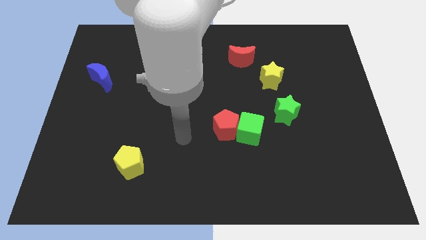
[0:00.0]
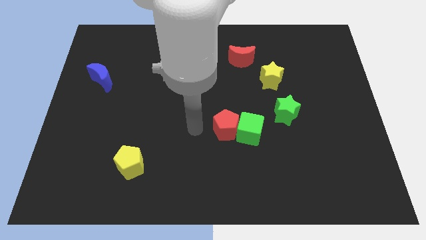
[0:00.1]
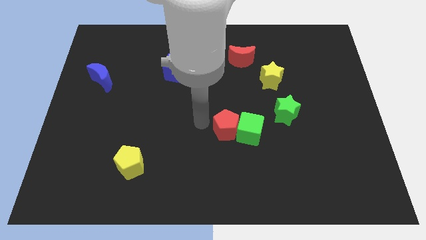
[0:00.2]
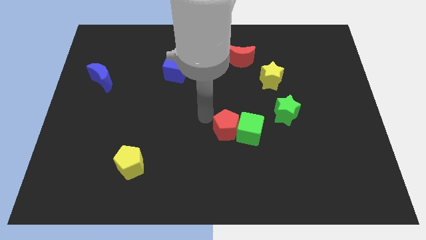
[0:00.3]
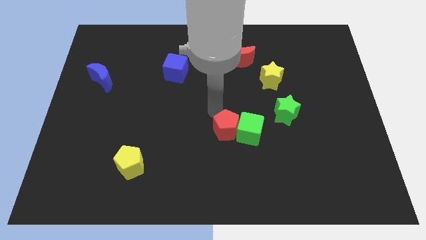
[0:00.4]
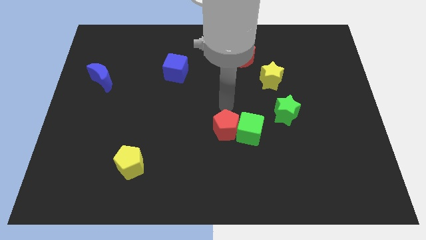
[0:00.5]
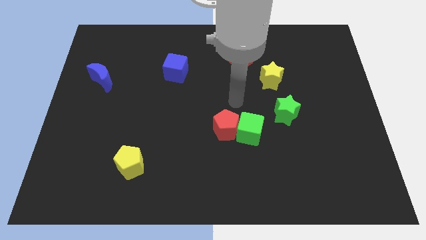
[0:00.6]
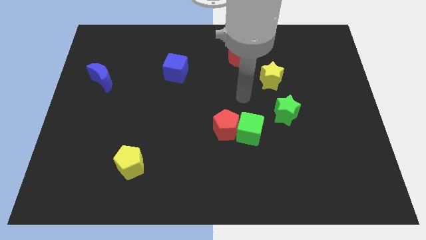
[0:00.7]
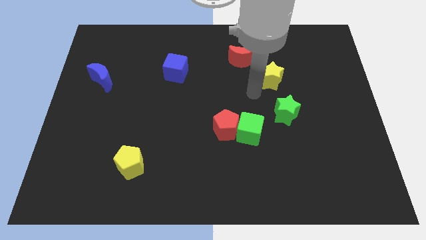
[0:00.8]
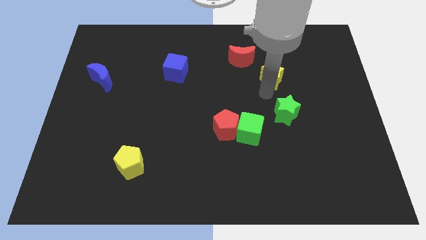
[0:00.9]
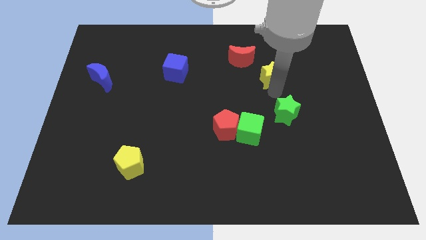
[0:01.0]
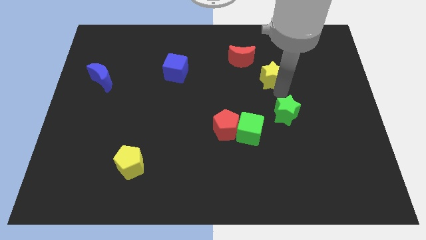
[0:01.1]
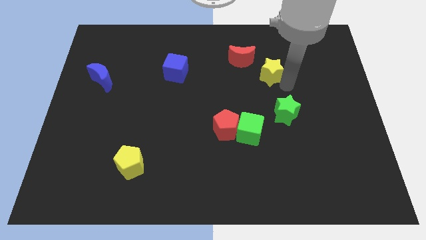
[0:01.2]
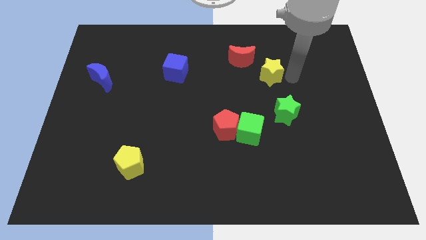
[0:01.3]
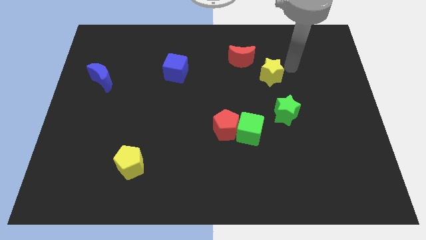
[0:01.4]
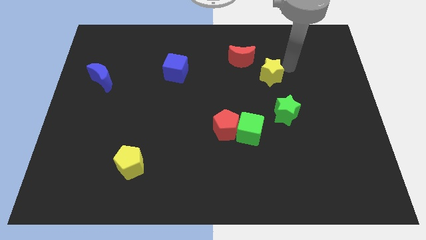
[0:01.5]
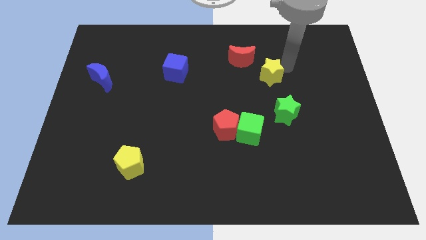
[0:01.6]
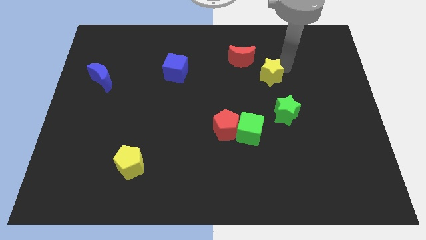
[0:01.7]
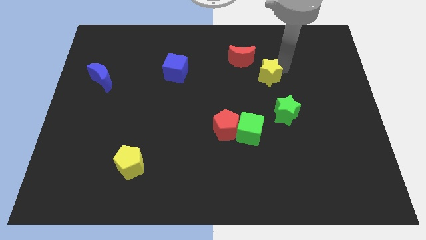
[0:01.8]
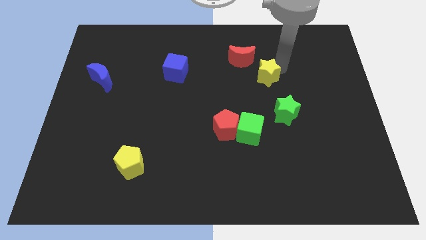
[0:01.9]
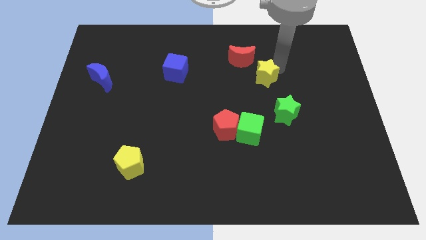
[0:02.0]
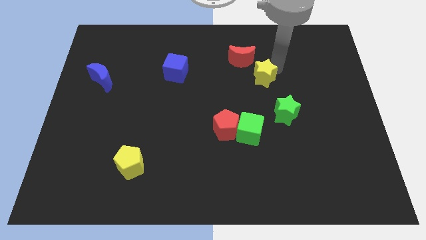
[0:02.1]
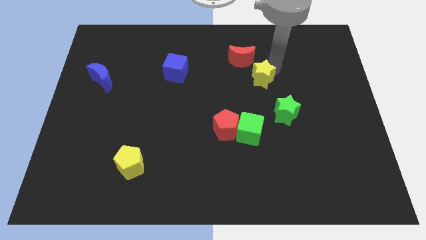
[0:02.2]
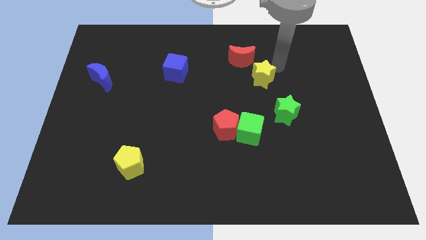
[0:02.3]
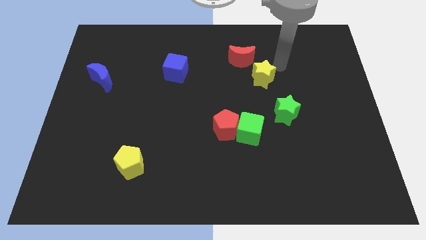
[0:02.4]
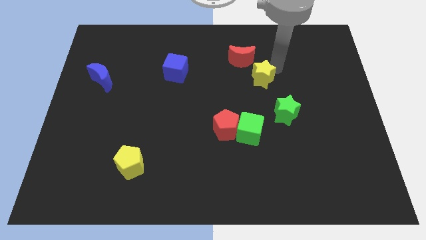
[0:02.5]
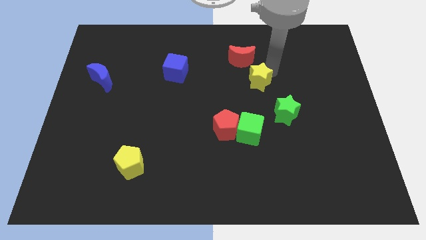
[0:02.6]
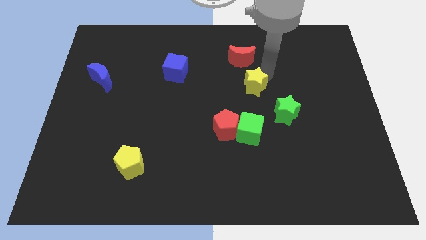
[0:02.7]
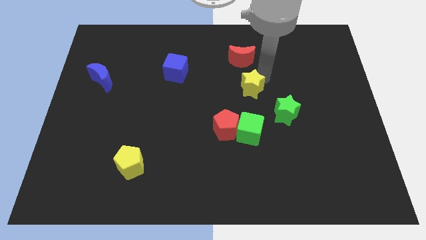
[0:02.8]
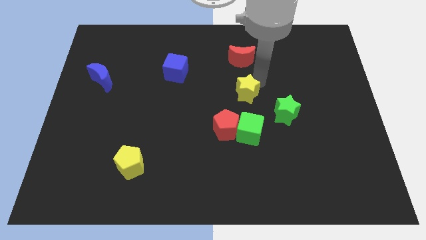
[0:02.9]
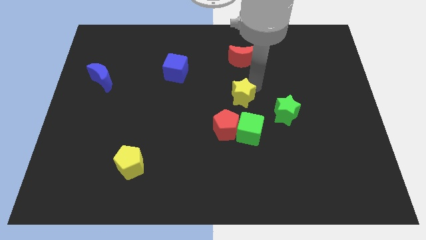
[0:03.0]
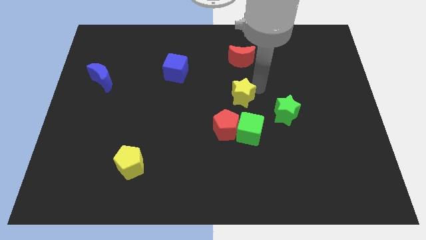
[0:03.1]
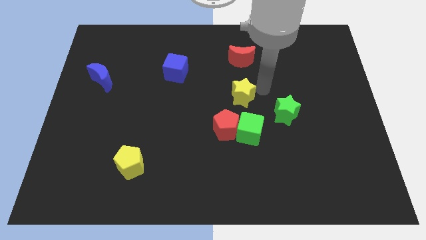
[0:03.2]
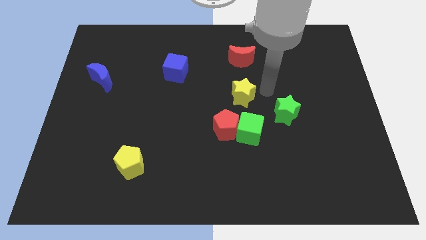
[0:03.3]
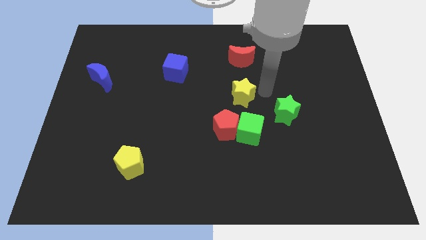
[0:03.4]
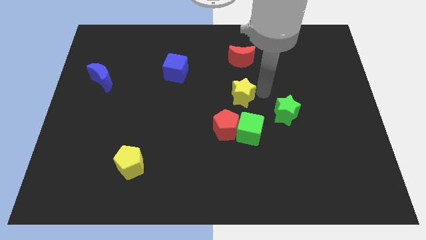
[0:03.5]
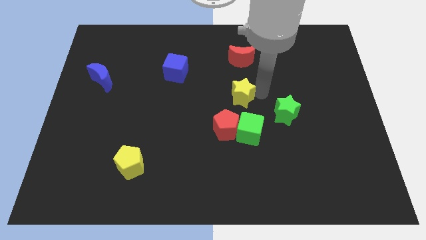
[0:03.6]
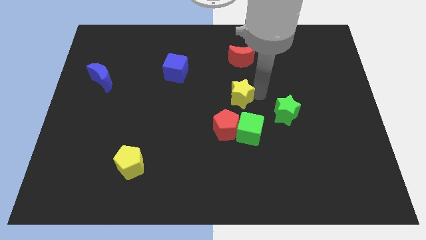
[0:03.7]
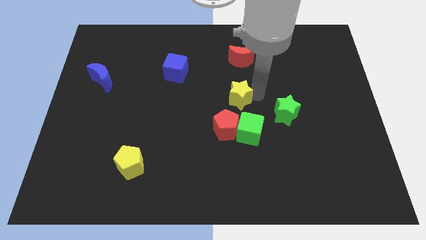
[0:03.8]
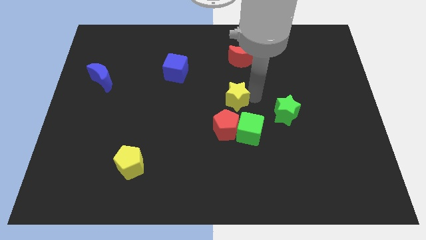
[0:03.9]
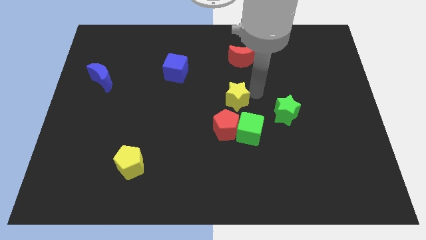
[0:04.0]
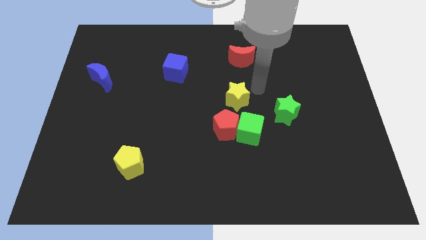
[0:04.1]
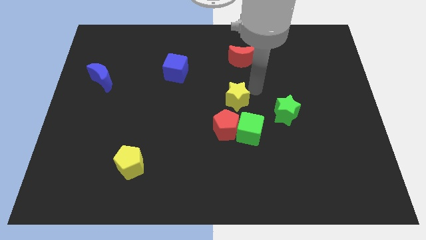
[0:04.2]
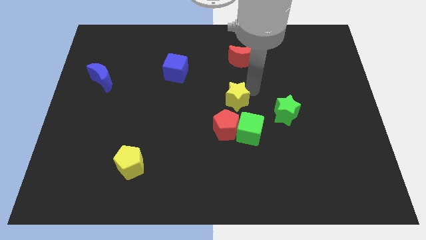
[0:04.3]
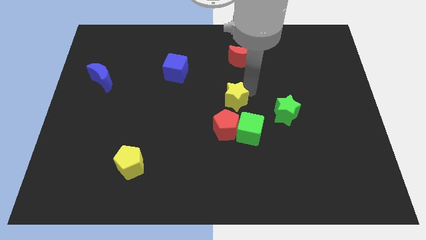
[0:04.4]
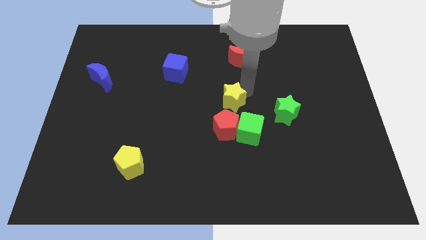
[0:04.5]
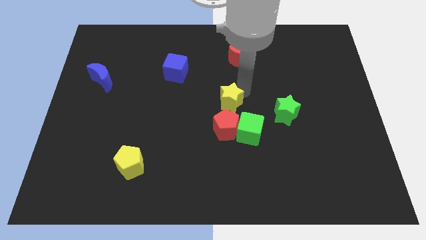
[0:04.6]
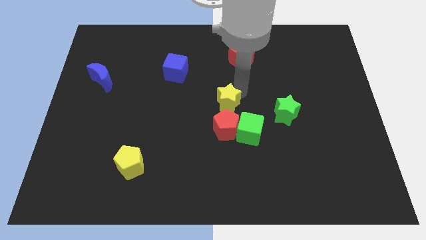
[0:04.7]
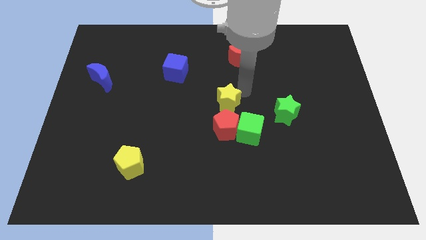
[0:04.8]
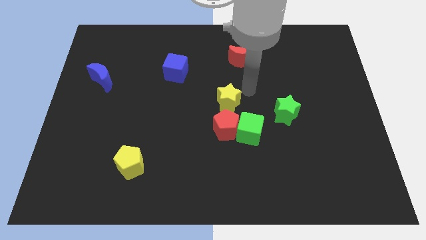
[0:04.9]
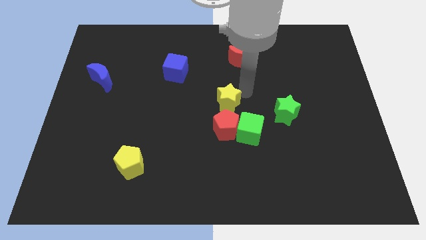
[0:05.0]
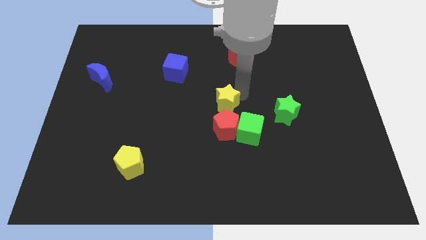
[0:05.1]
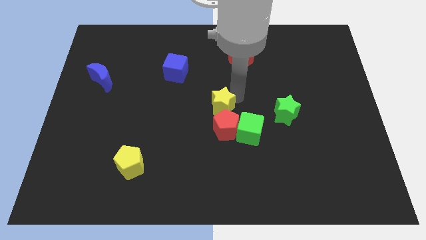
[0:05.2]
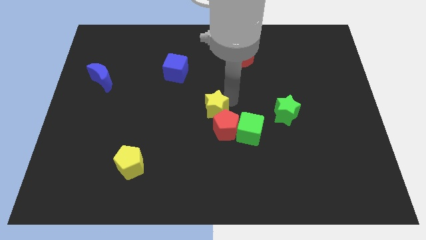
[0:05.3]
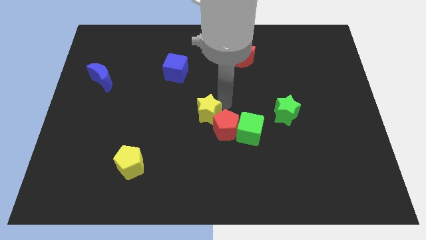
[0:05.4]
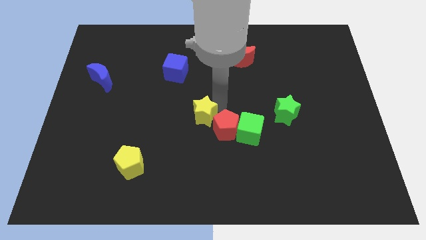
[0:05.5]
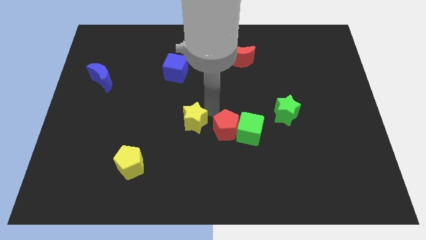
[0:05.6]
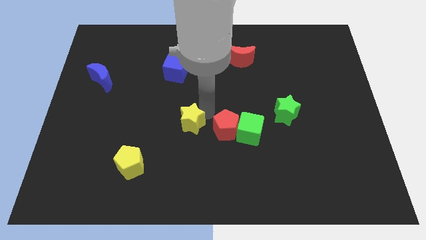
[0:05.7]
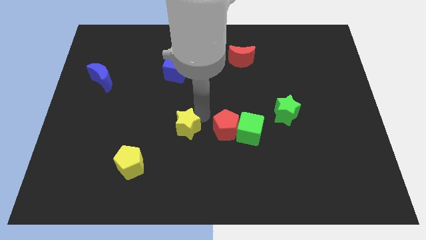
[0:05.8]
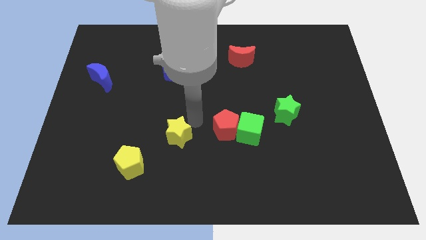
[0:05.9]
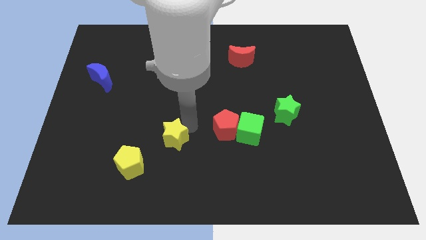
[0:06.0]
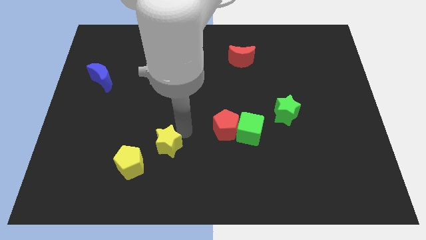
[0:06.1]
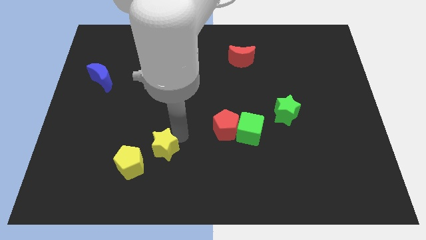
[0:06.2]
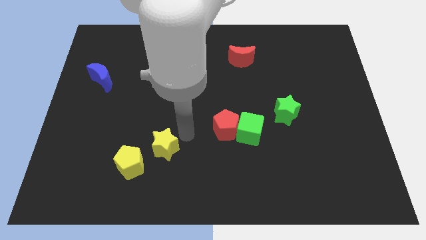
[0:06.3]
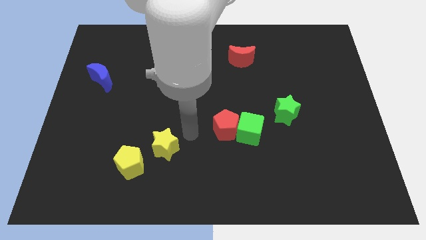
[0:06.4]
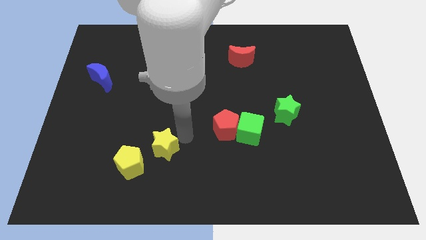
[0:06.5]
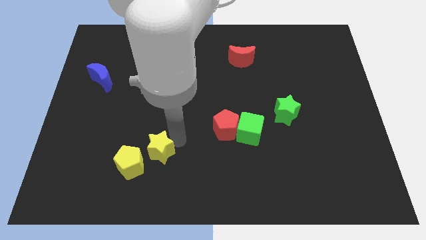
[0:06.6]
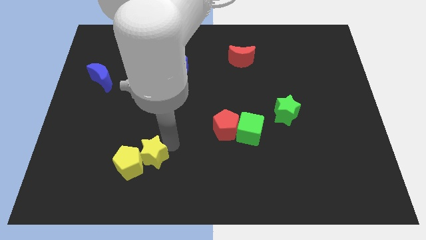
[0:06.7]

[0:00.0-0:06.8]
move the yellow star next to the yellow pentagon

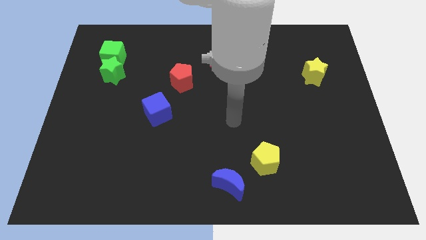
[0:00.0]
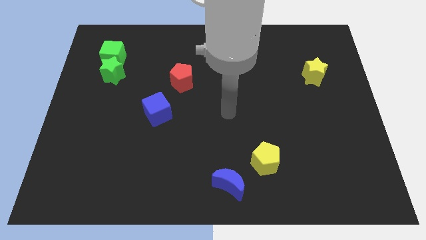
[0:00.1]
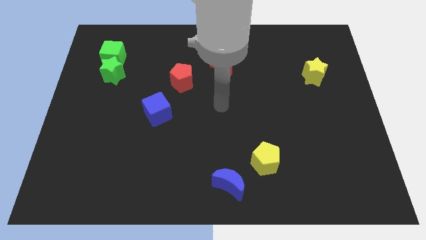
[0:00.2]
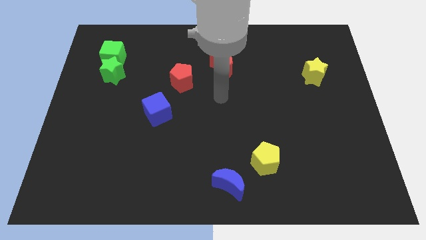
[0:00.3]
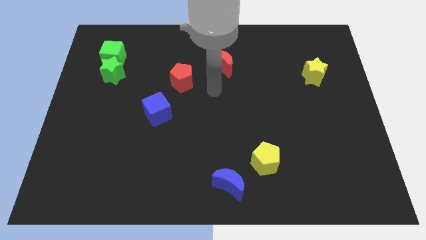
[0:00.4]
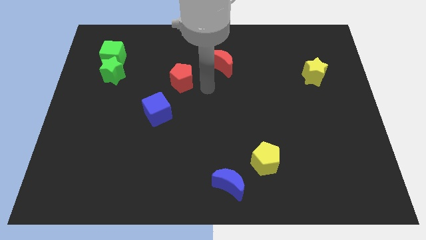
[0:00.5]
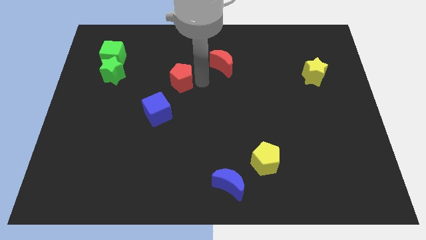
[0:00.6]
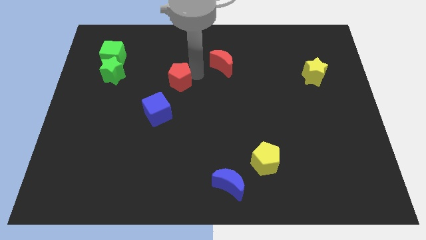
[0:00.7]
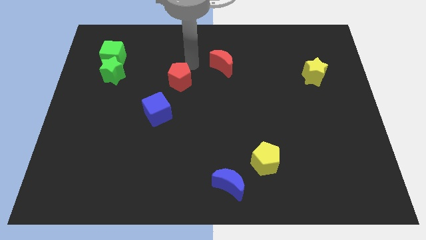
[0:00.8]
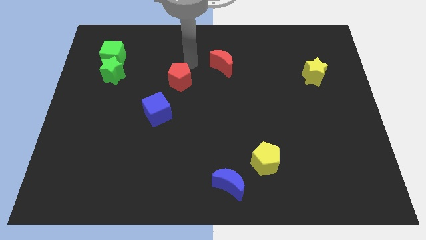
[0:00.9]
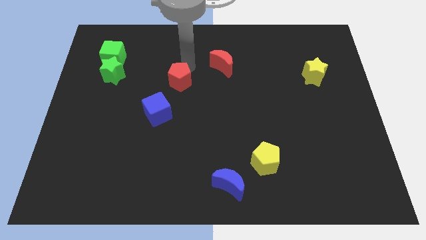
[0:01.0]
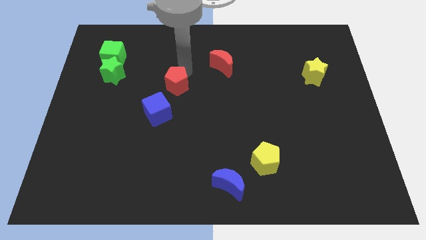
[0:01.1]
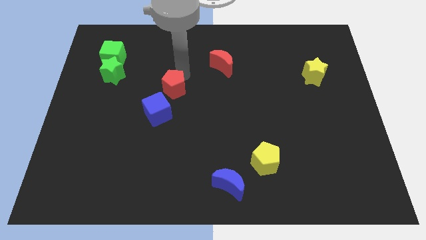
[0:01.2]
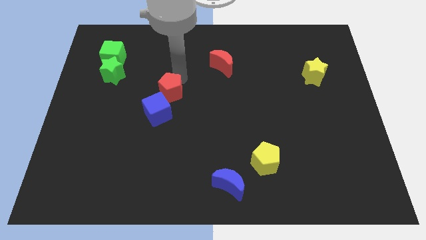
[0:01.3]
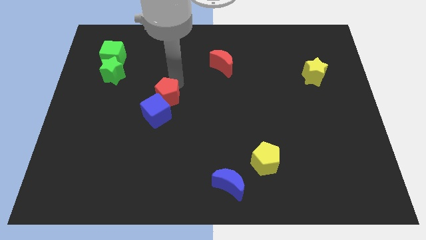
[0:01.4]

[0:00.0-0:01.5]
slide the red pentagon next to the blue cube
